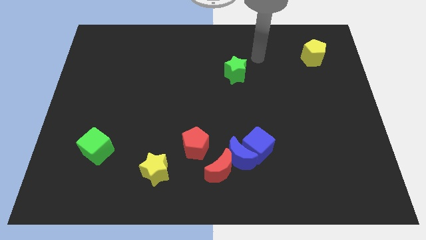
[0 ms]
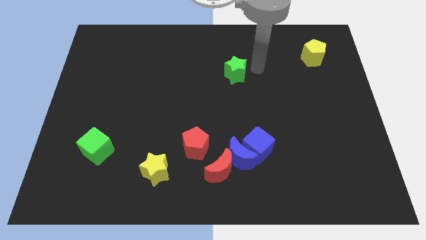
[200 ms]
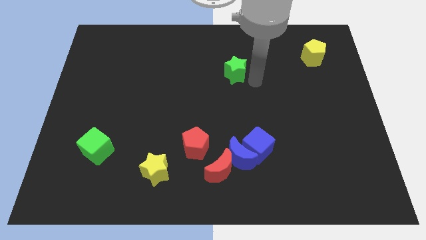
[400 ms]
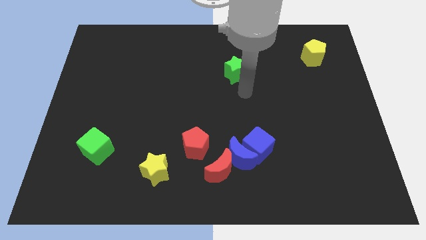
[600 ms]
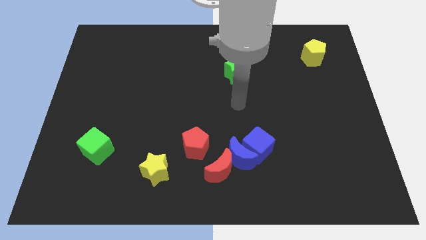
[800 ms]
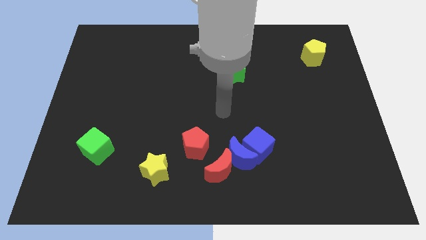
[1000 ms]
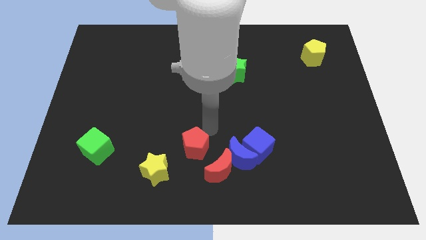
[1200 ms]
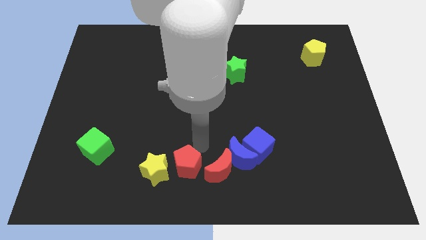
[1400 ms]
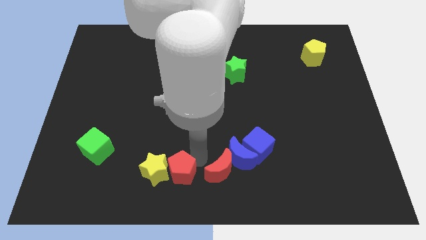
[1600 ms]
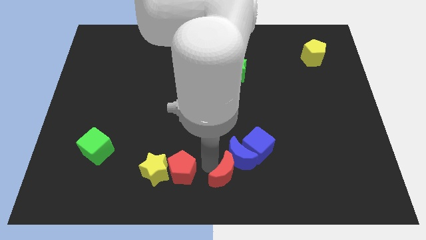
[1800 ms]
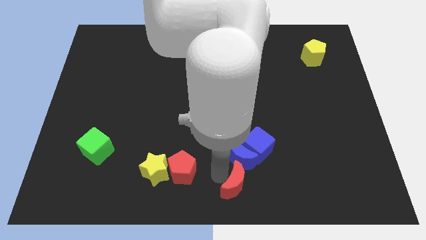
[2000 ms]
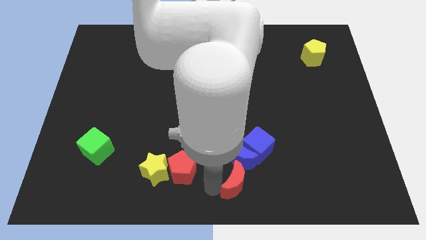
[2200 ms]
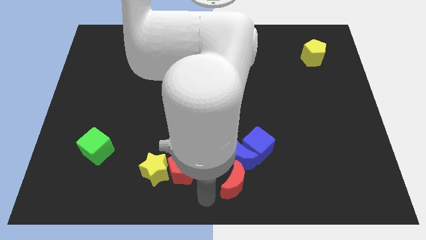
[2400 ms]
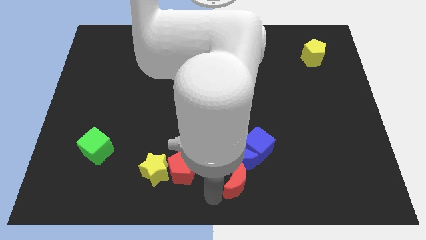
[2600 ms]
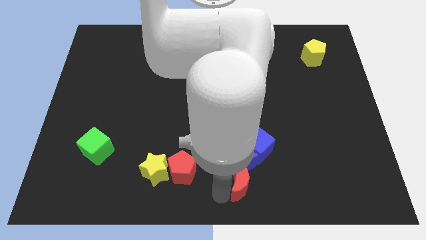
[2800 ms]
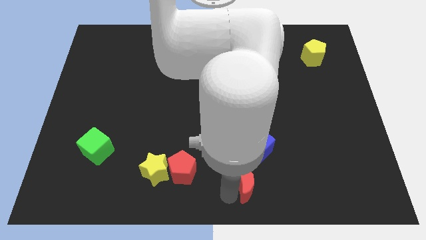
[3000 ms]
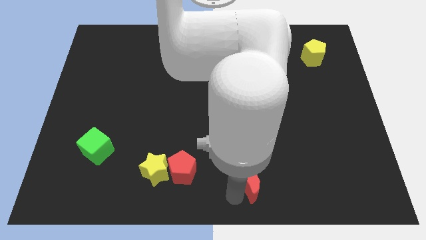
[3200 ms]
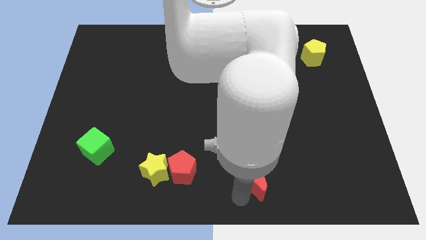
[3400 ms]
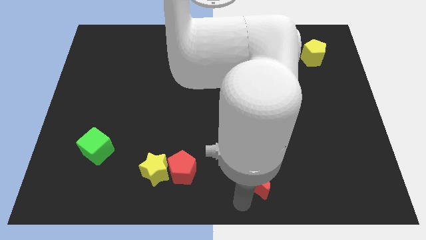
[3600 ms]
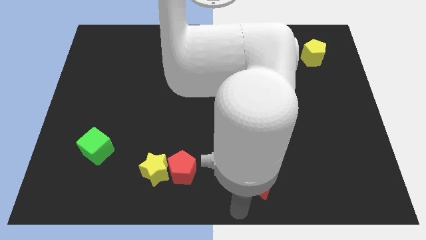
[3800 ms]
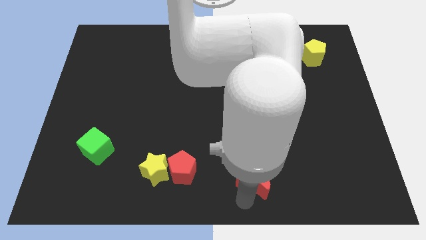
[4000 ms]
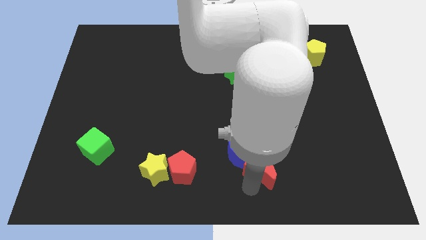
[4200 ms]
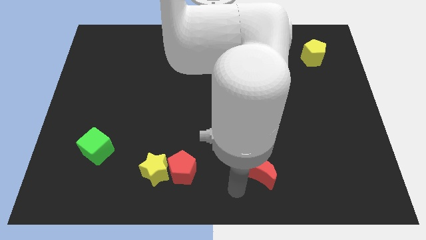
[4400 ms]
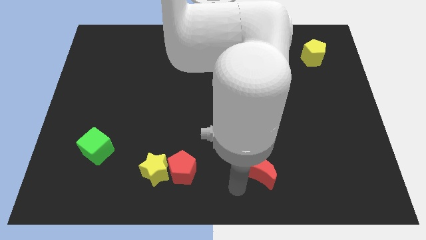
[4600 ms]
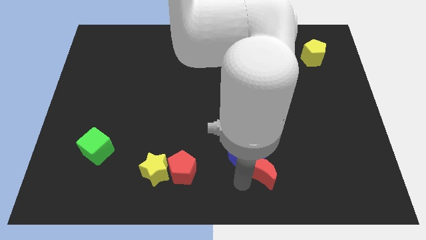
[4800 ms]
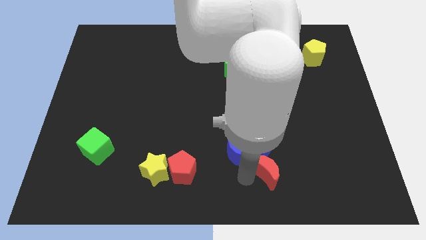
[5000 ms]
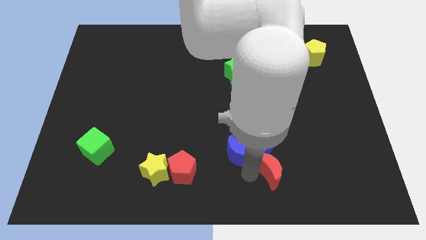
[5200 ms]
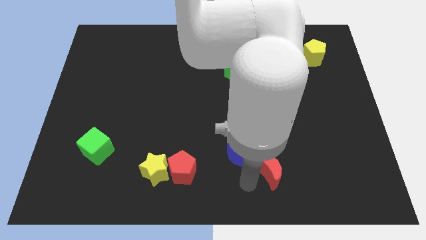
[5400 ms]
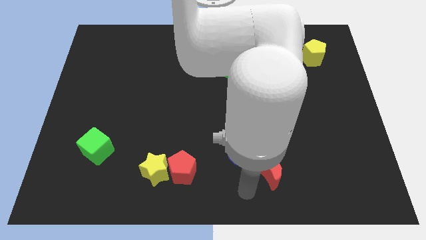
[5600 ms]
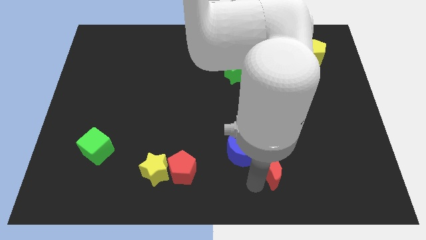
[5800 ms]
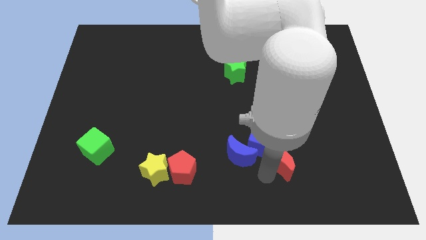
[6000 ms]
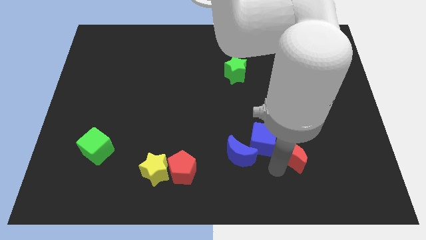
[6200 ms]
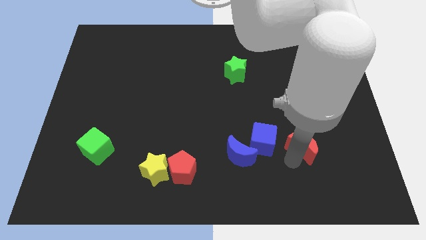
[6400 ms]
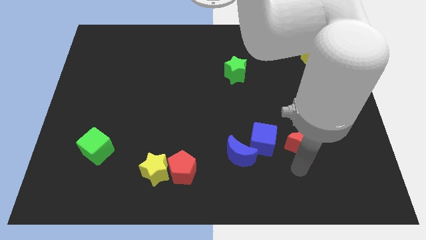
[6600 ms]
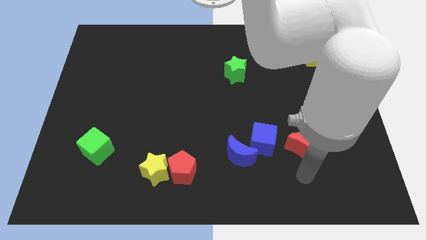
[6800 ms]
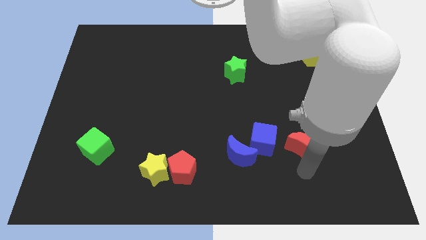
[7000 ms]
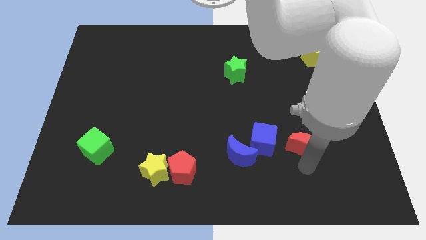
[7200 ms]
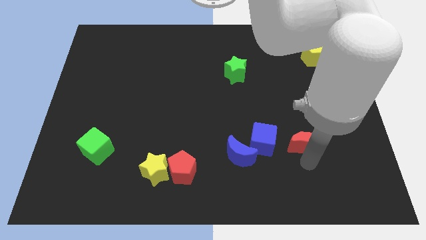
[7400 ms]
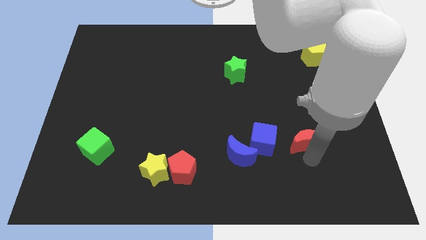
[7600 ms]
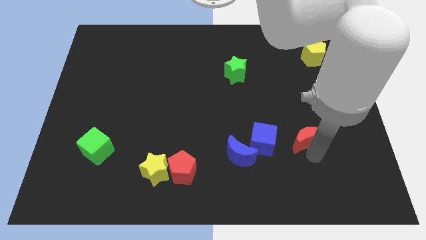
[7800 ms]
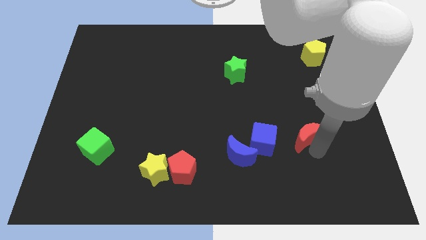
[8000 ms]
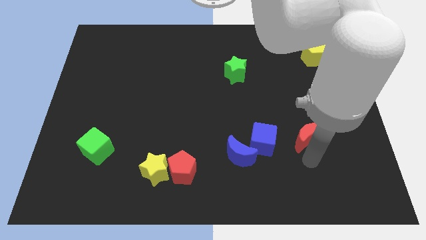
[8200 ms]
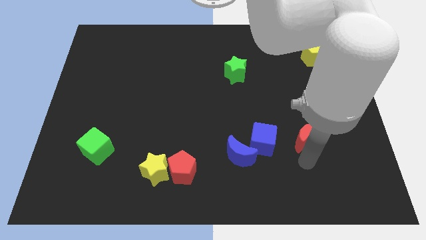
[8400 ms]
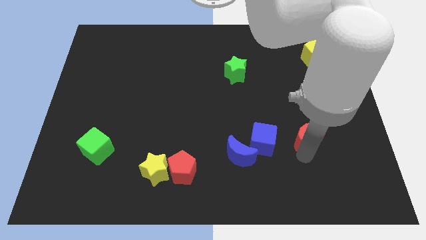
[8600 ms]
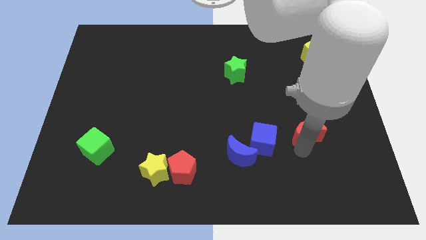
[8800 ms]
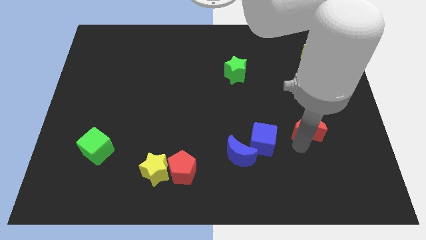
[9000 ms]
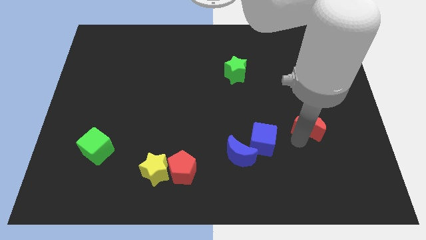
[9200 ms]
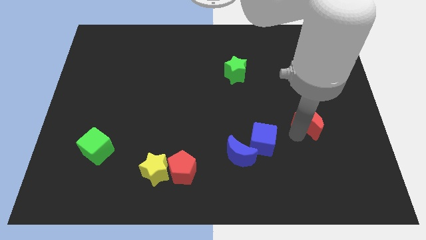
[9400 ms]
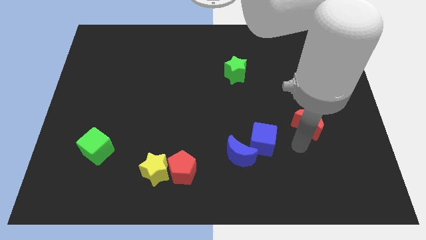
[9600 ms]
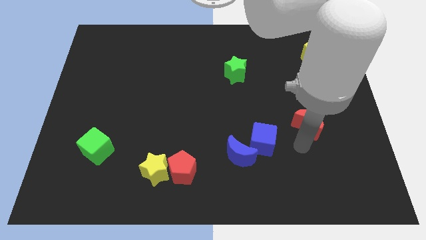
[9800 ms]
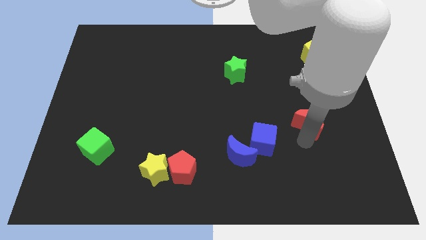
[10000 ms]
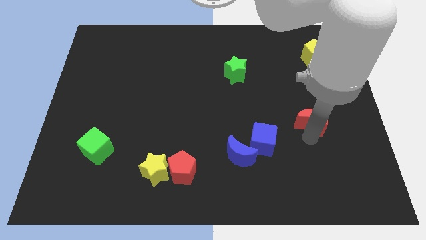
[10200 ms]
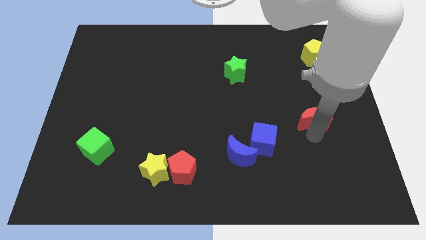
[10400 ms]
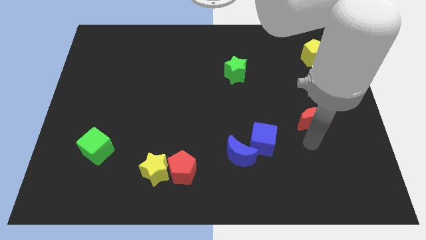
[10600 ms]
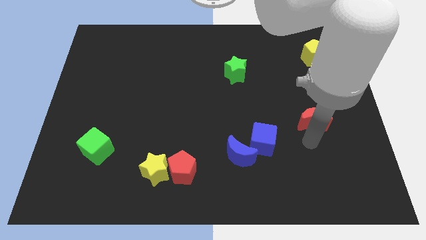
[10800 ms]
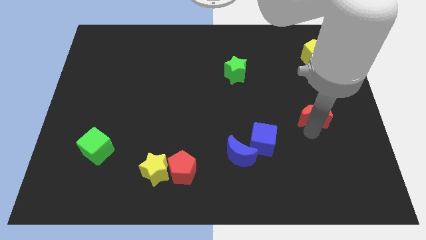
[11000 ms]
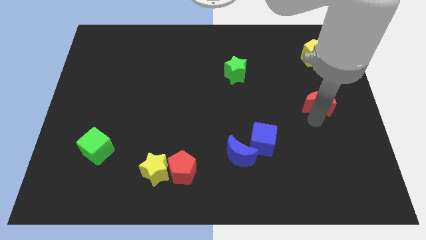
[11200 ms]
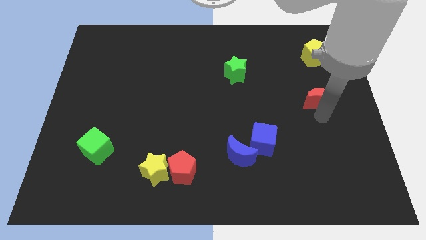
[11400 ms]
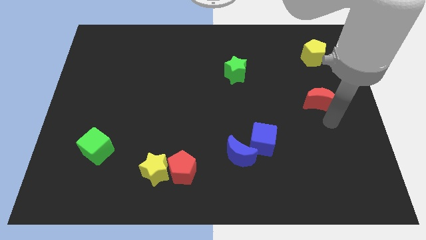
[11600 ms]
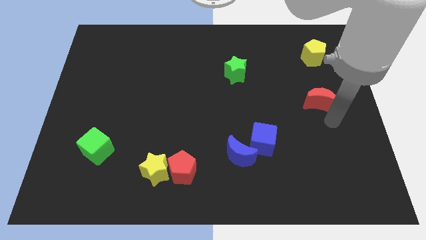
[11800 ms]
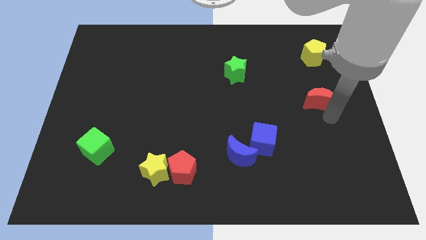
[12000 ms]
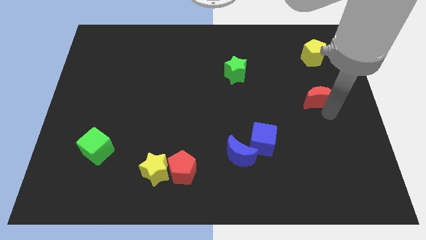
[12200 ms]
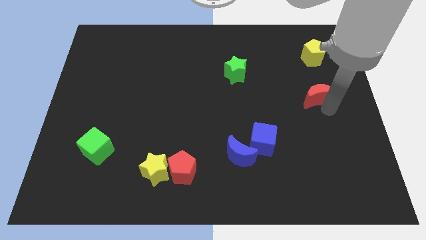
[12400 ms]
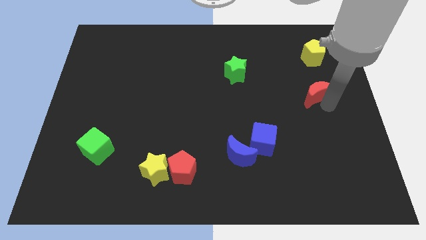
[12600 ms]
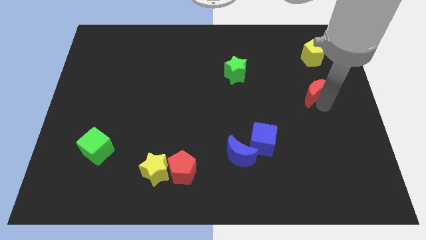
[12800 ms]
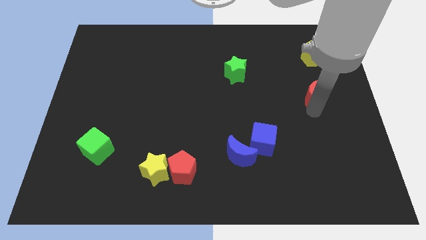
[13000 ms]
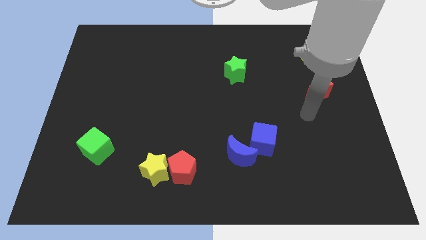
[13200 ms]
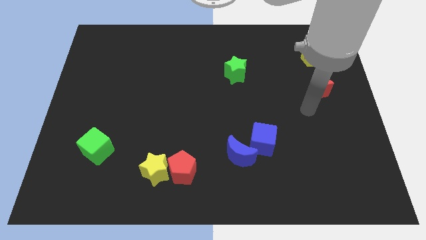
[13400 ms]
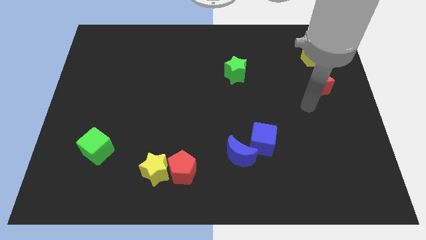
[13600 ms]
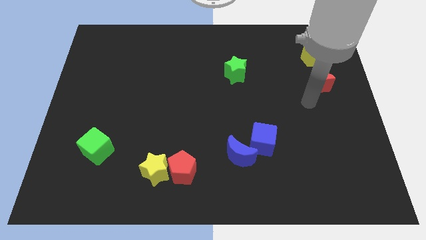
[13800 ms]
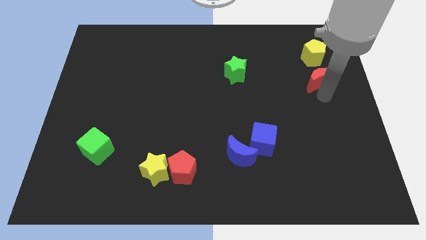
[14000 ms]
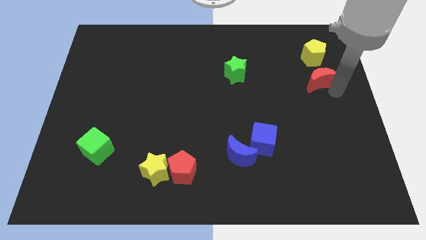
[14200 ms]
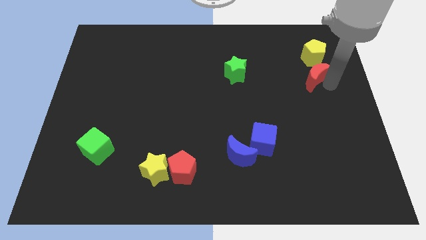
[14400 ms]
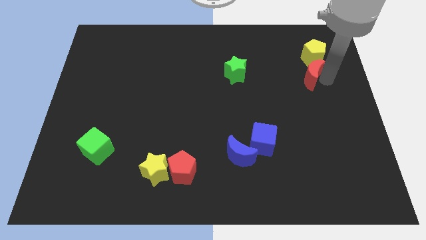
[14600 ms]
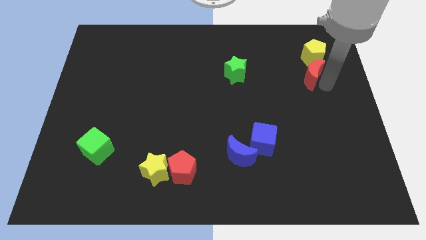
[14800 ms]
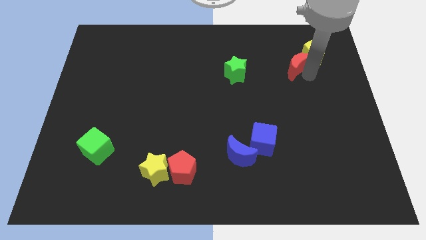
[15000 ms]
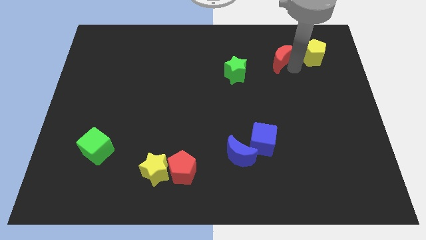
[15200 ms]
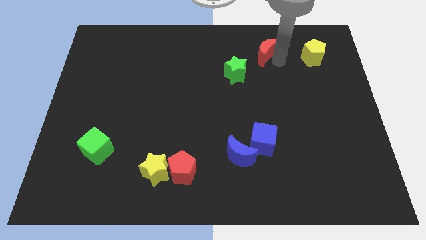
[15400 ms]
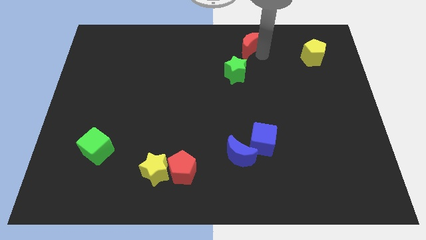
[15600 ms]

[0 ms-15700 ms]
move the red moon to the top
